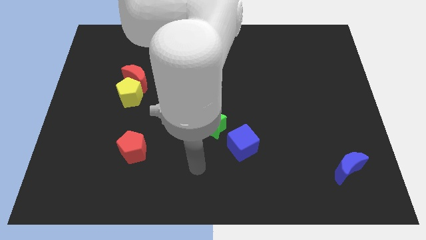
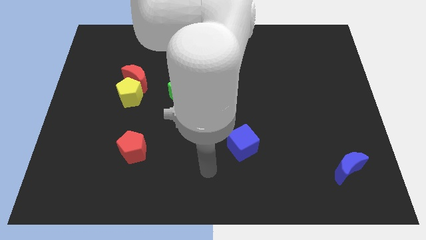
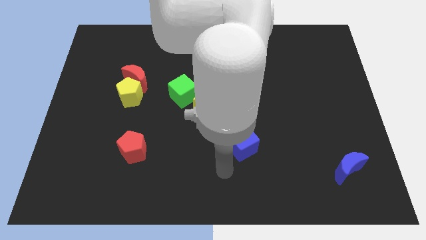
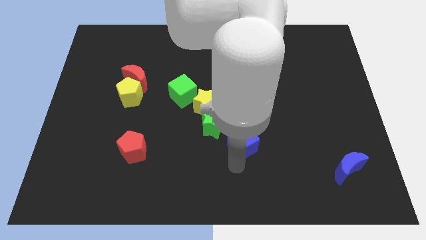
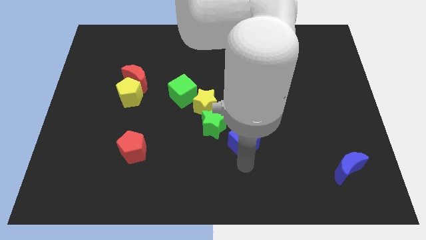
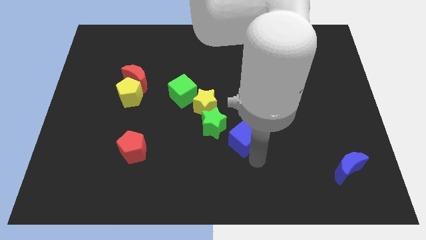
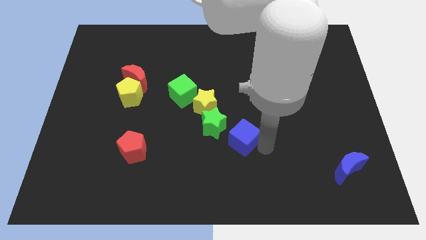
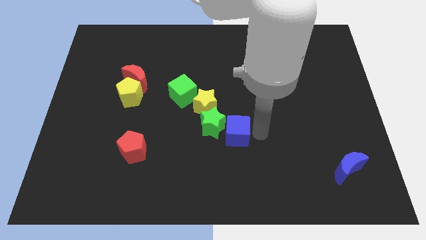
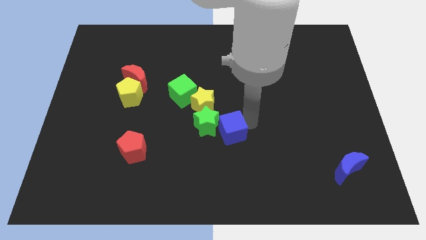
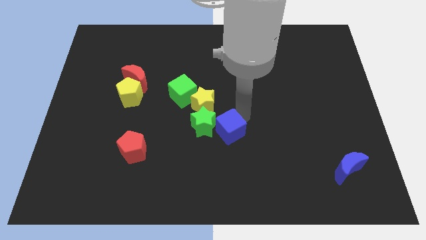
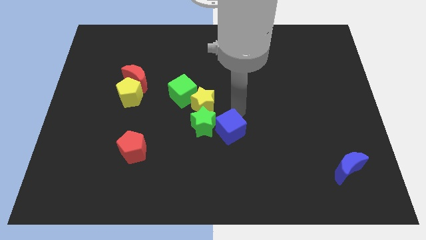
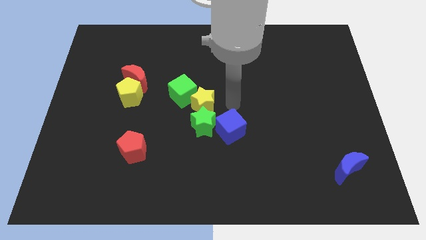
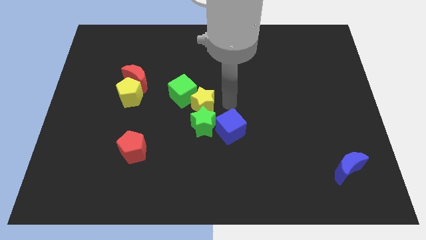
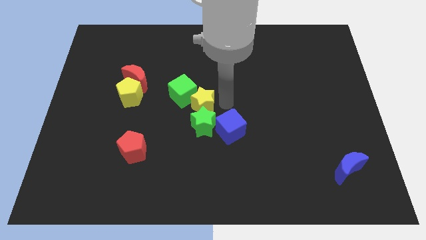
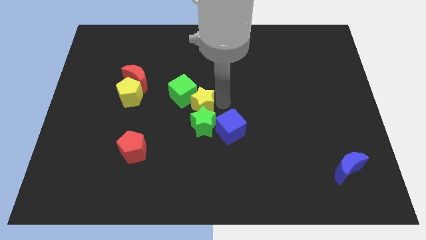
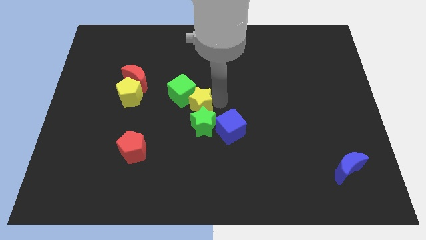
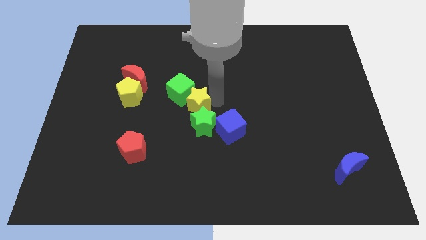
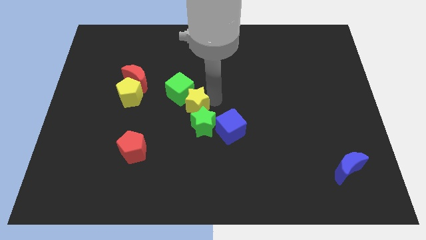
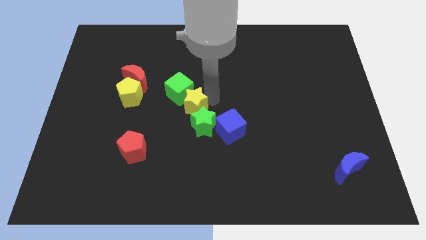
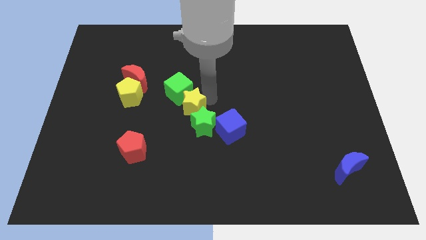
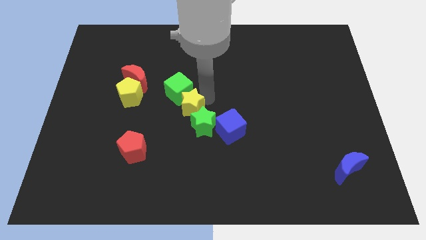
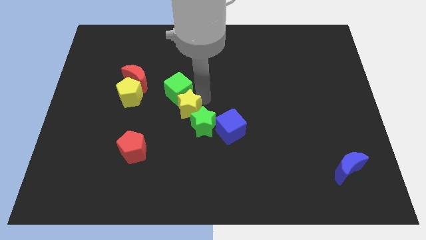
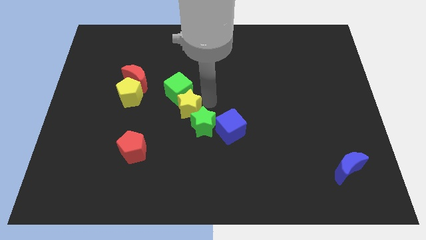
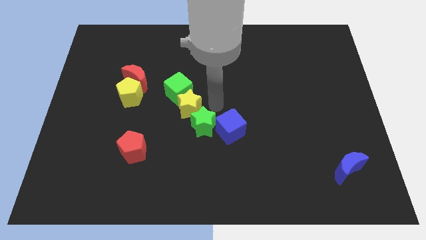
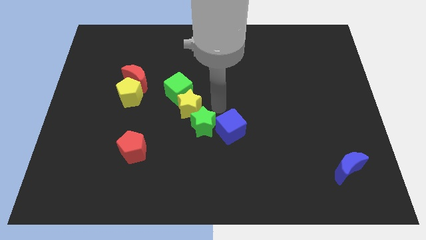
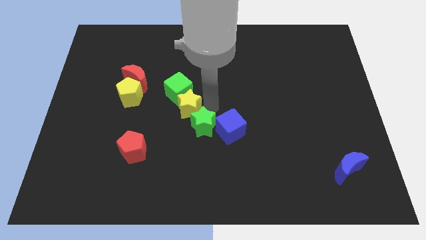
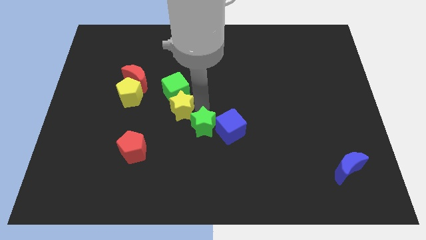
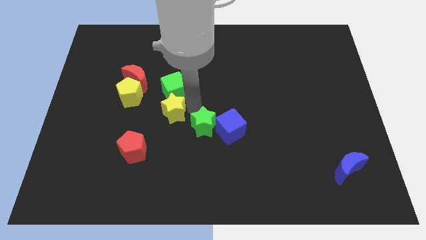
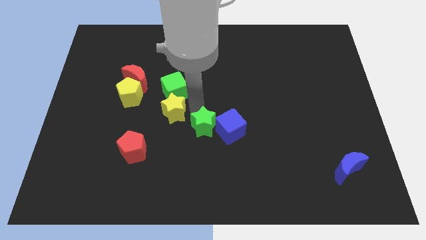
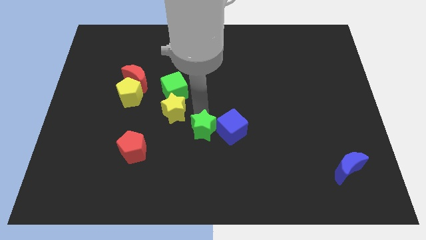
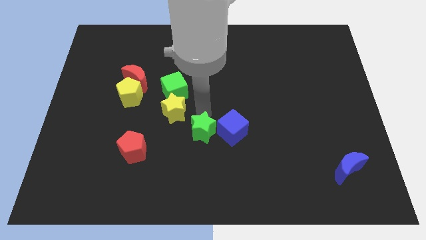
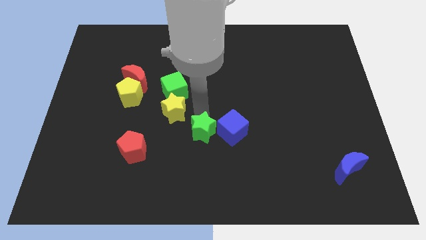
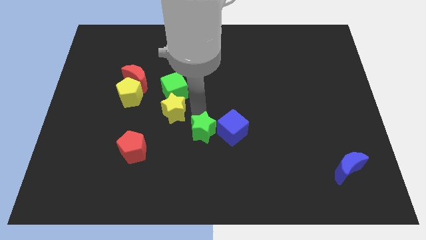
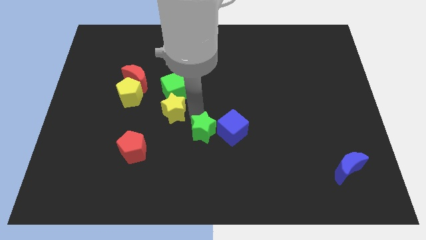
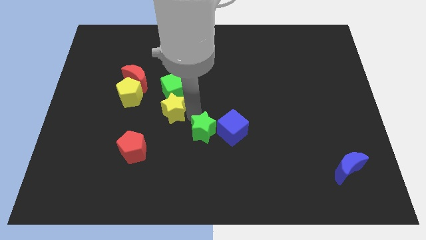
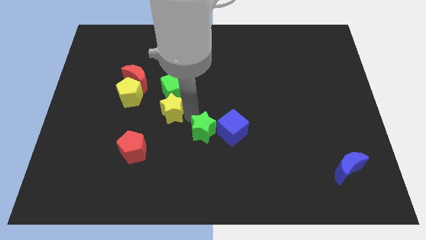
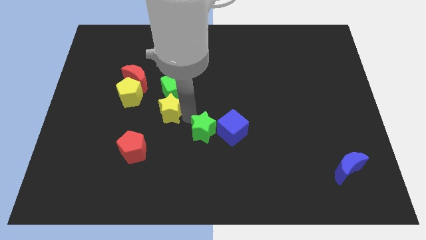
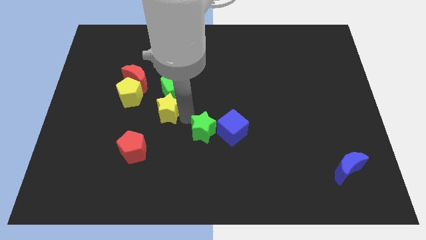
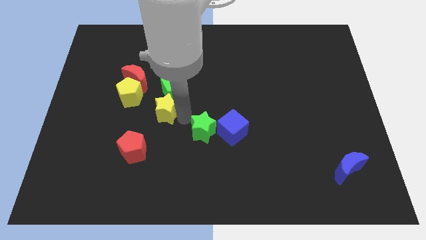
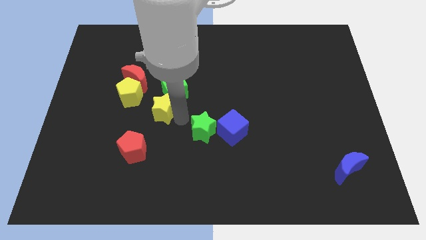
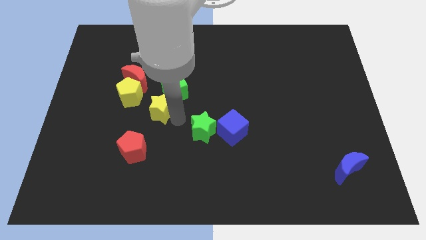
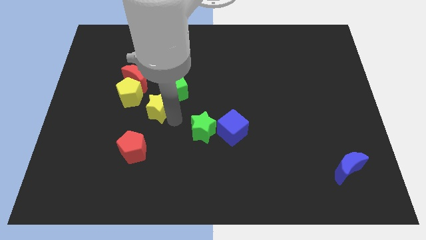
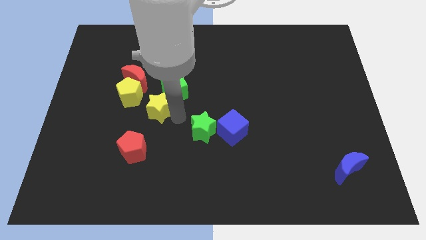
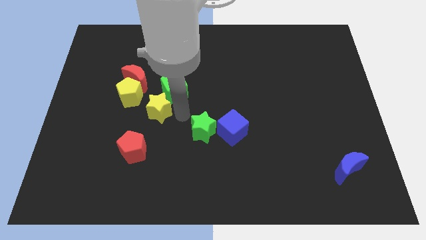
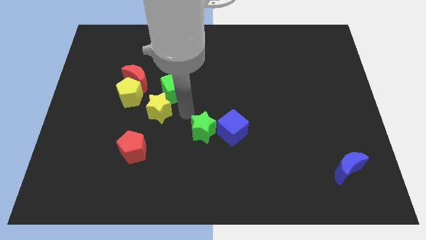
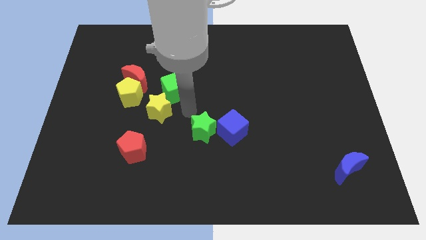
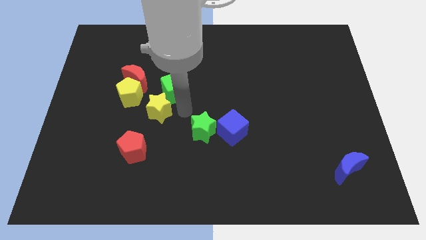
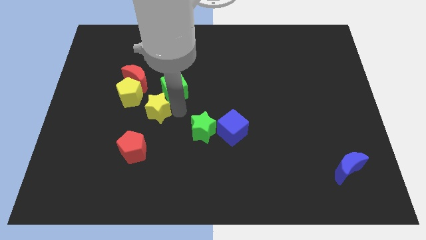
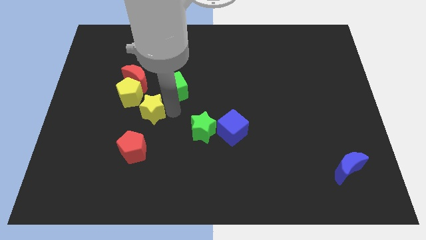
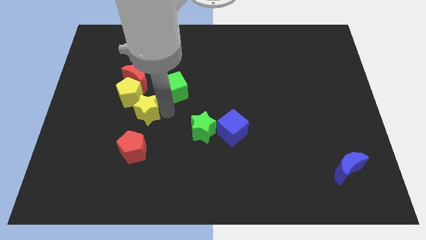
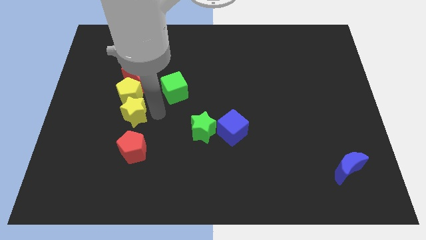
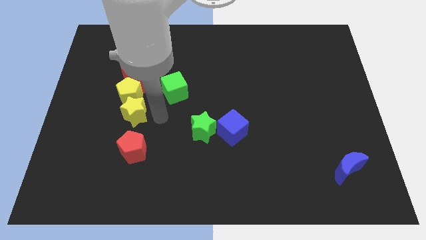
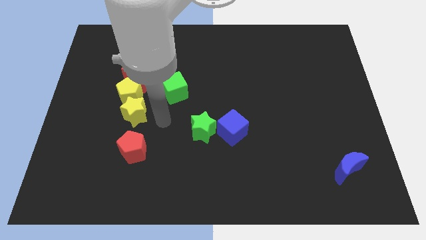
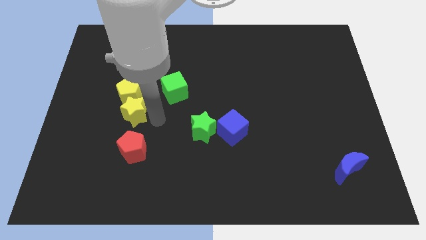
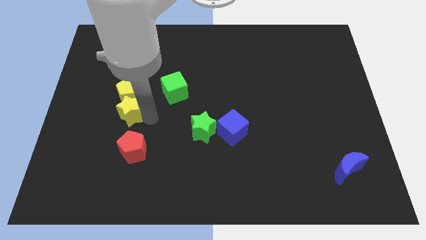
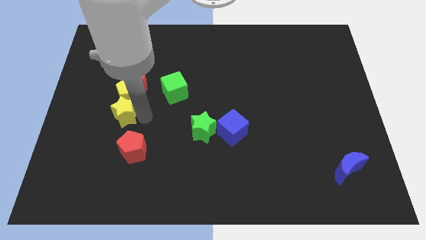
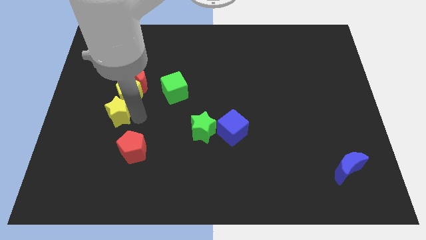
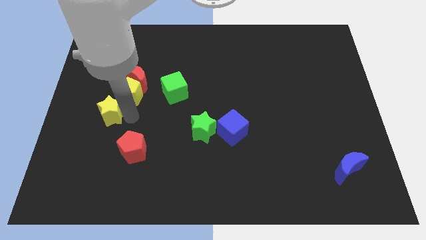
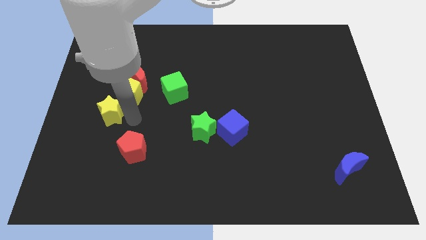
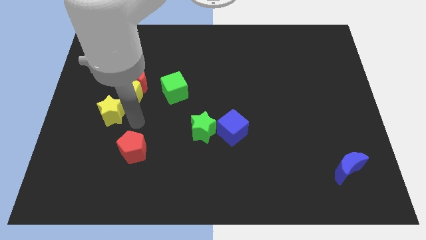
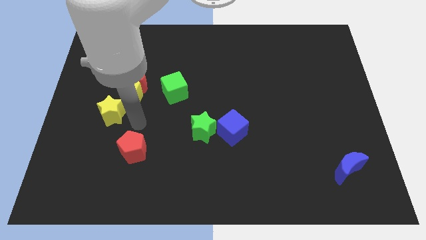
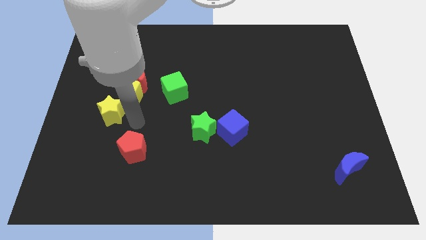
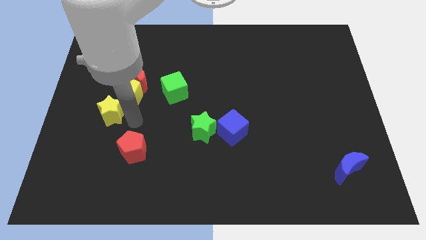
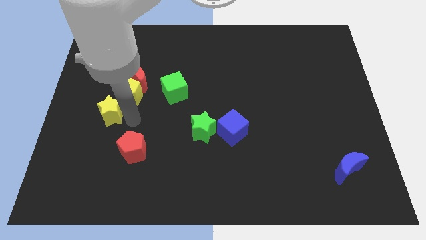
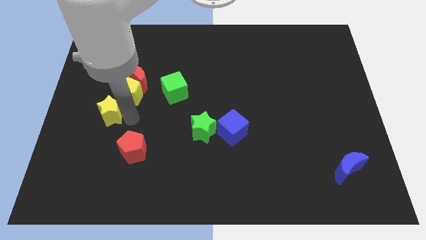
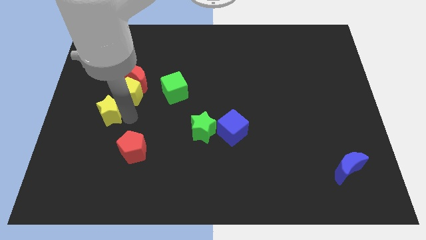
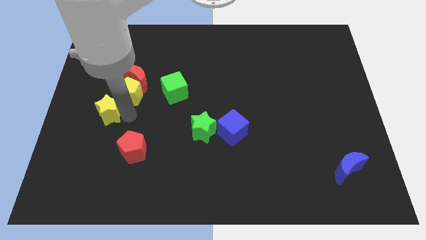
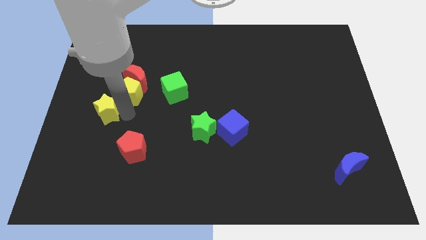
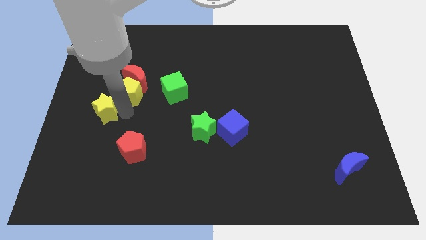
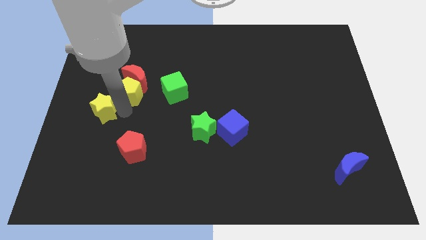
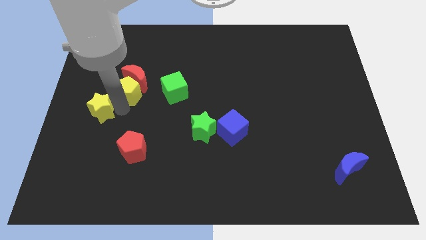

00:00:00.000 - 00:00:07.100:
push the yellow star to the center left

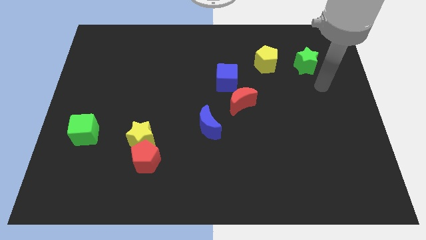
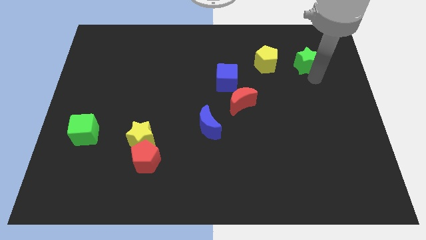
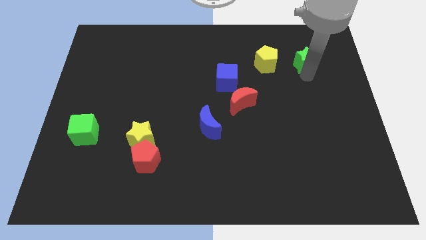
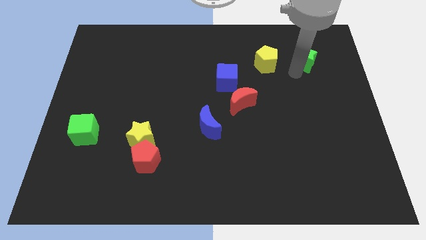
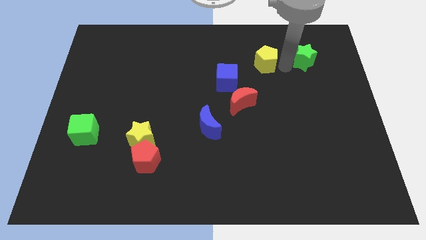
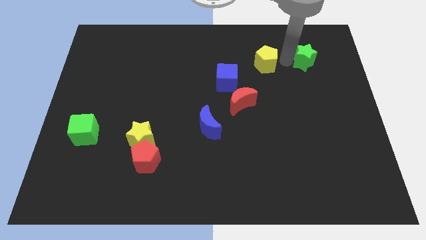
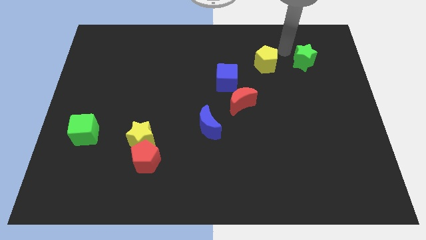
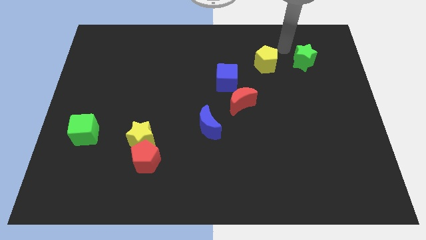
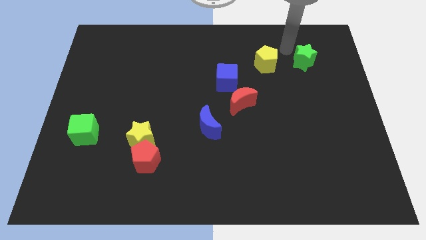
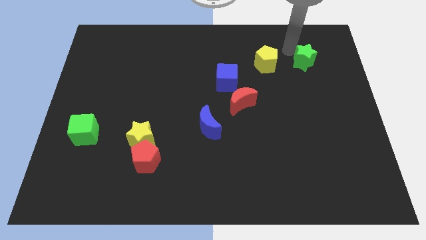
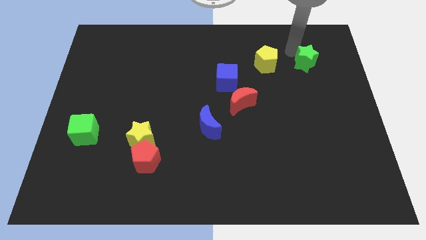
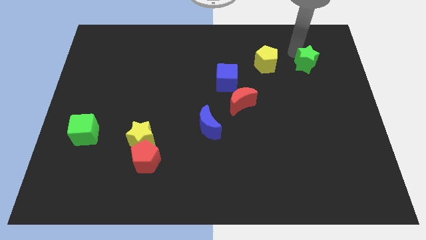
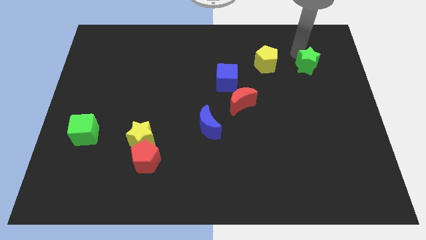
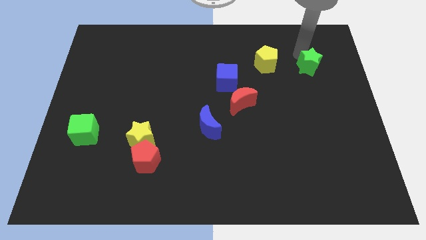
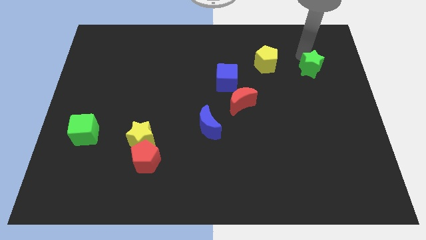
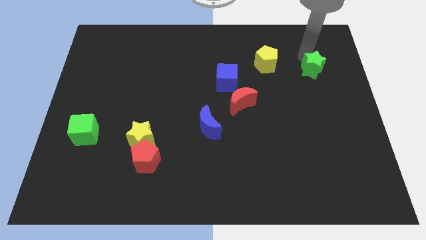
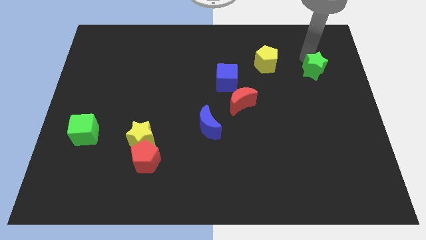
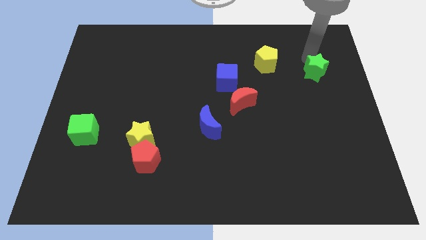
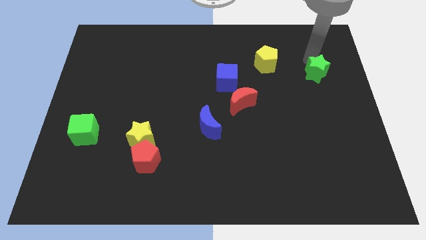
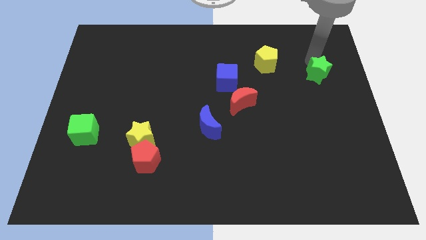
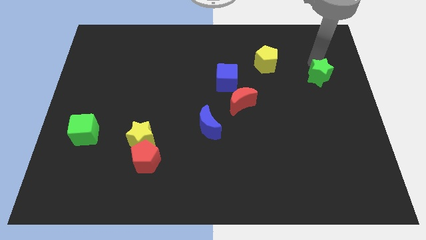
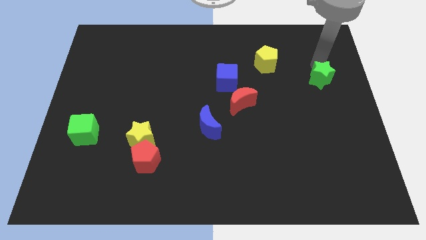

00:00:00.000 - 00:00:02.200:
slide the green star to the right side
